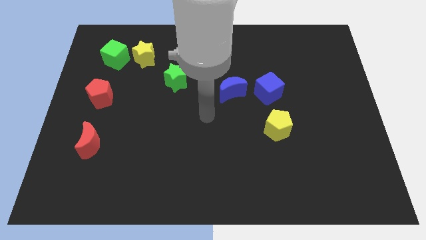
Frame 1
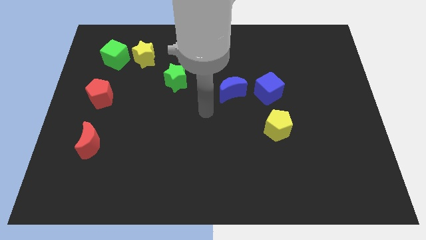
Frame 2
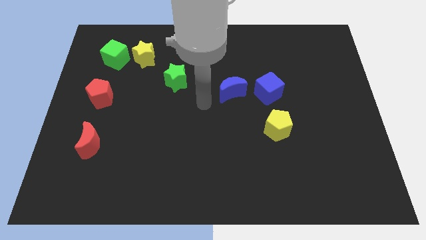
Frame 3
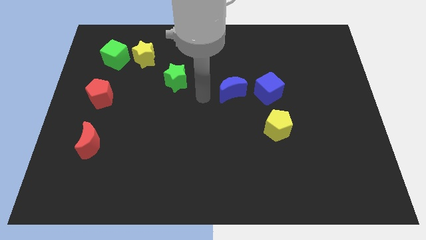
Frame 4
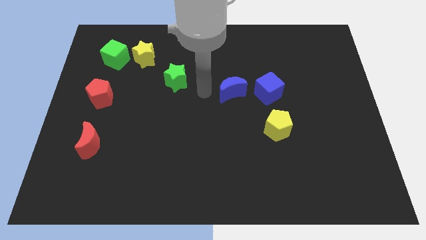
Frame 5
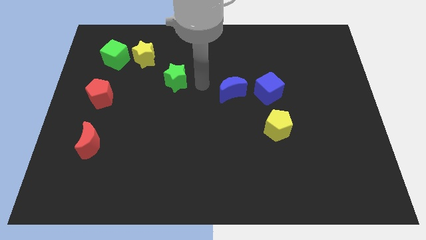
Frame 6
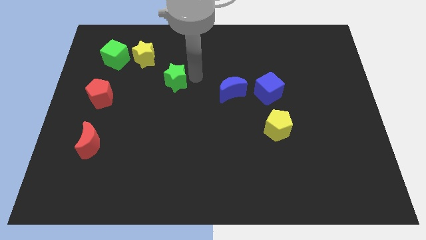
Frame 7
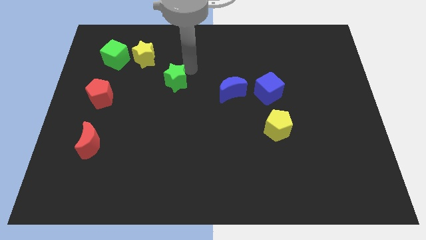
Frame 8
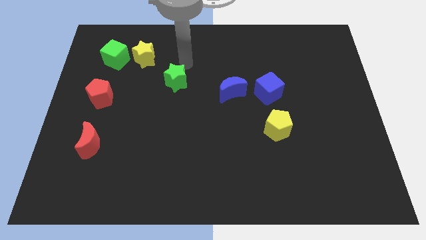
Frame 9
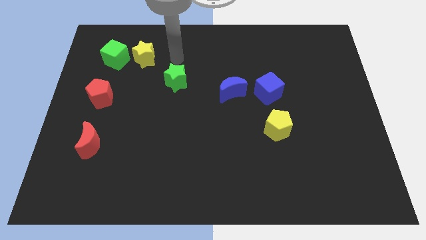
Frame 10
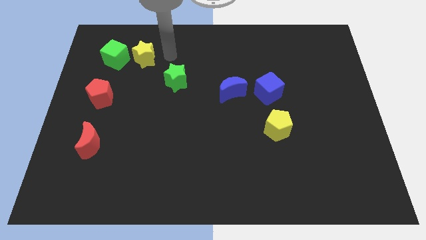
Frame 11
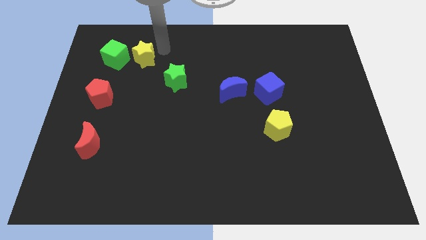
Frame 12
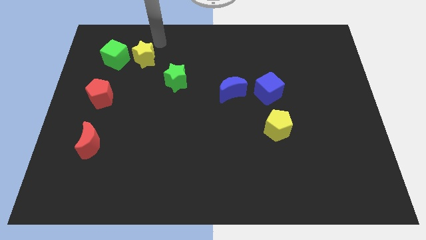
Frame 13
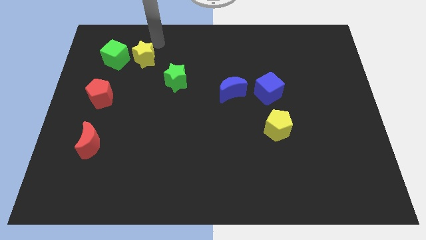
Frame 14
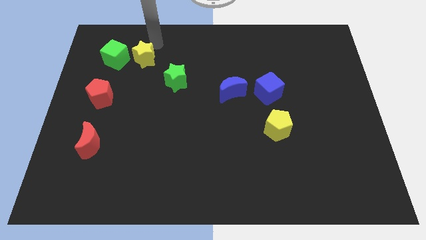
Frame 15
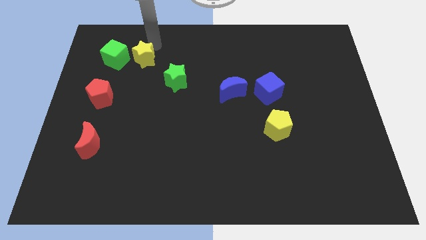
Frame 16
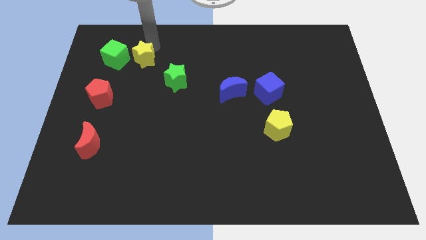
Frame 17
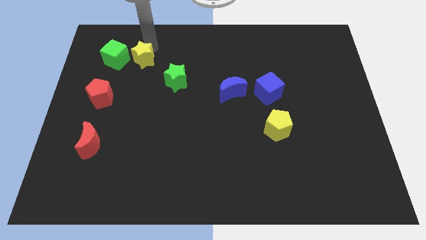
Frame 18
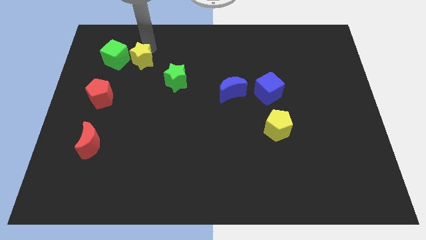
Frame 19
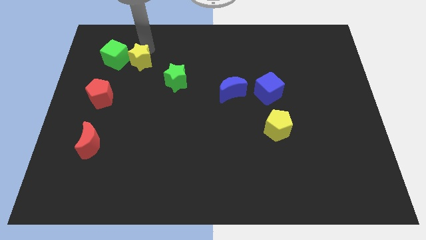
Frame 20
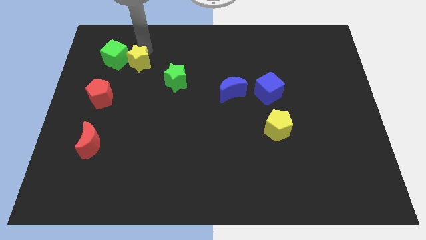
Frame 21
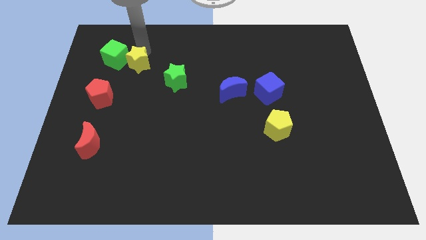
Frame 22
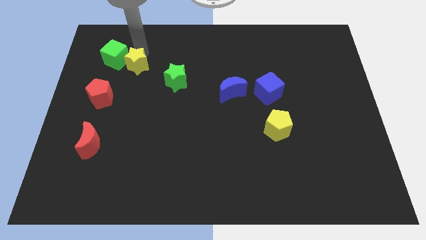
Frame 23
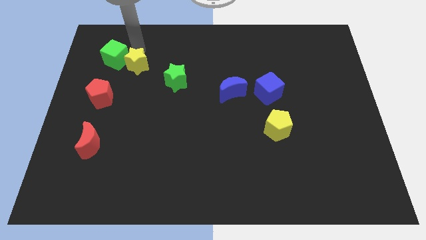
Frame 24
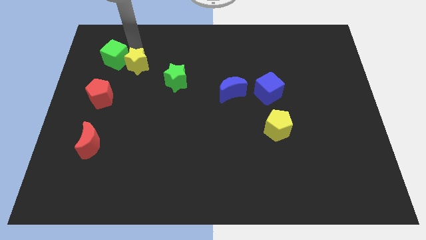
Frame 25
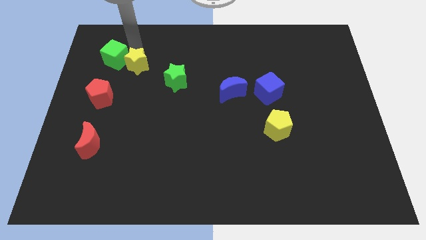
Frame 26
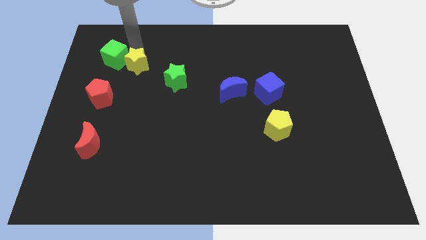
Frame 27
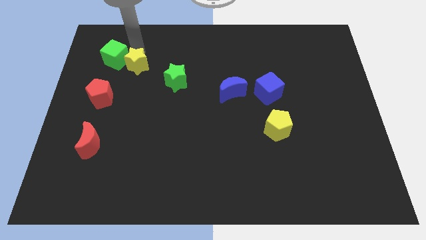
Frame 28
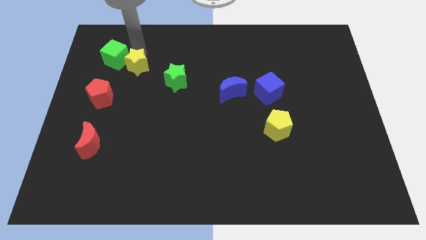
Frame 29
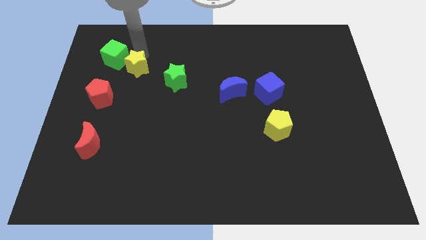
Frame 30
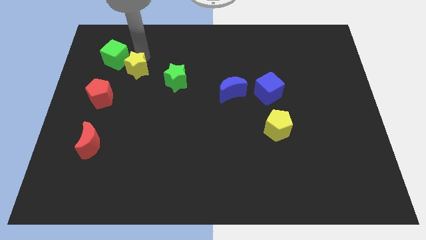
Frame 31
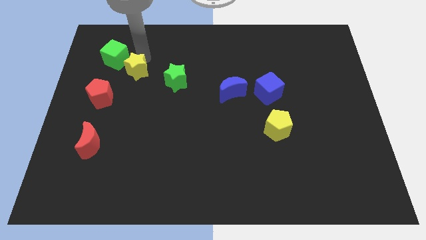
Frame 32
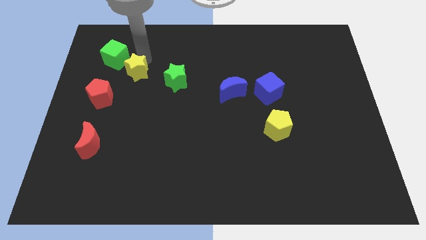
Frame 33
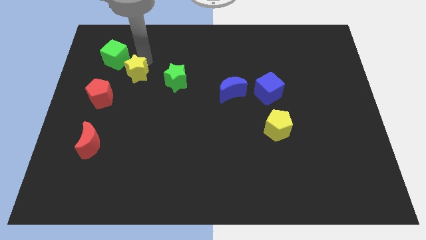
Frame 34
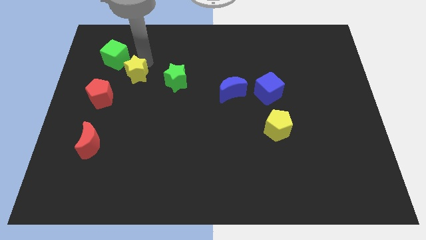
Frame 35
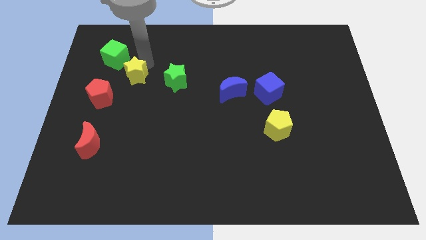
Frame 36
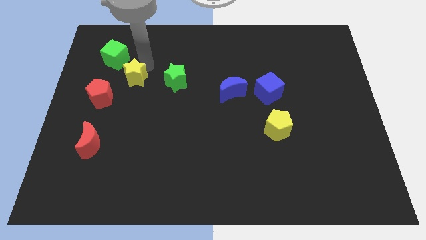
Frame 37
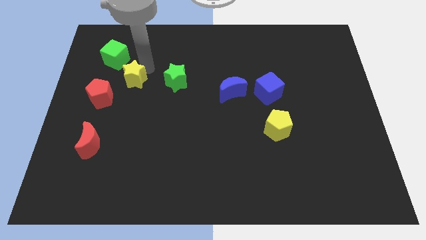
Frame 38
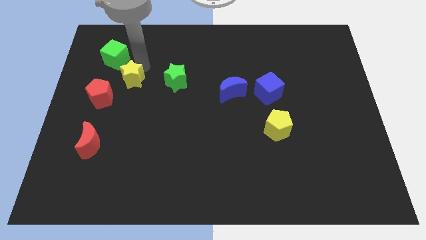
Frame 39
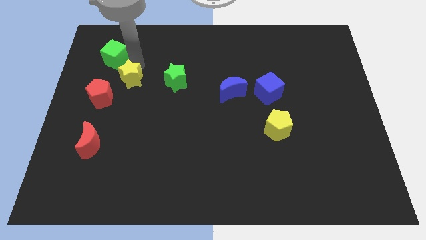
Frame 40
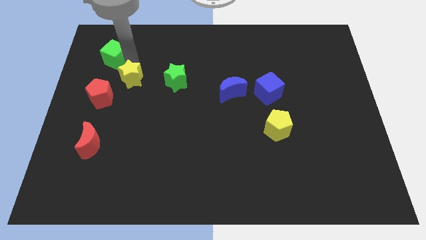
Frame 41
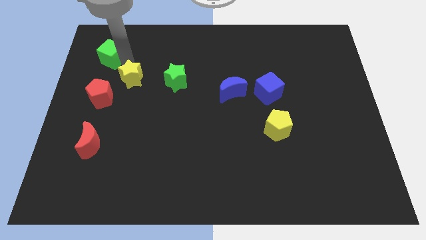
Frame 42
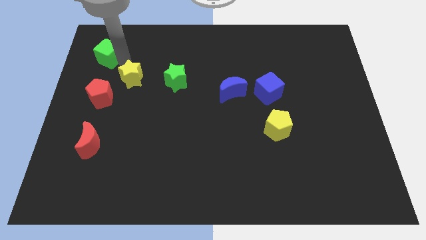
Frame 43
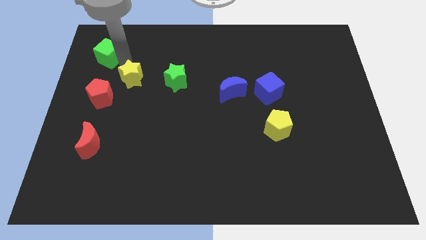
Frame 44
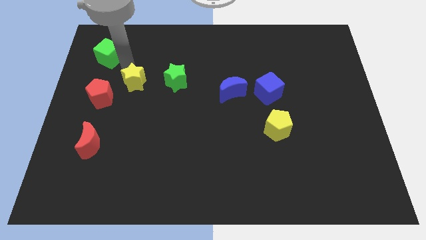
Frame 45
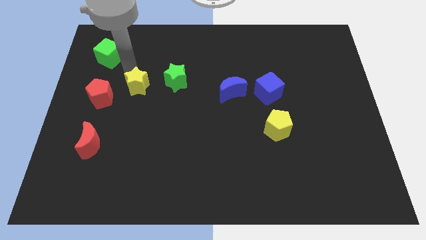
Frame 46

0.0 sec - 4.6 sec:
move the yellow star to the right side of the red pentagon

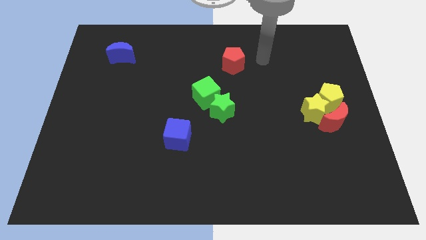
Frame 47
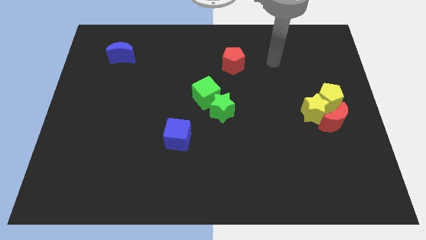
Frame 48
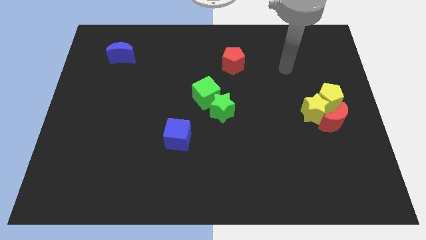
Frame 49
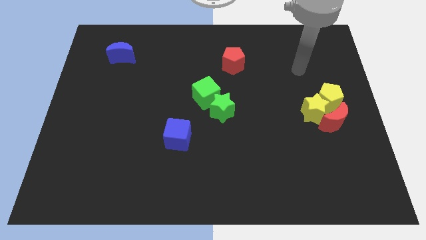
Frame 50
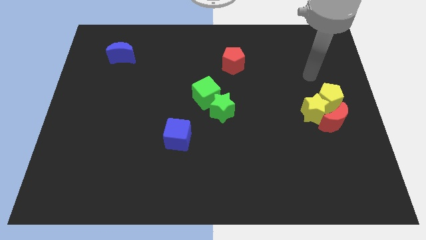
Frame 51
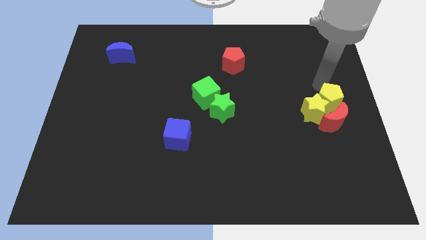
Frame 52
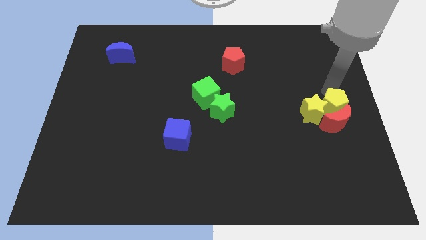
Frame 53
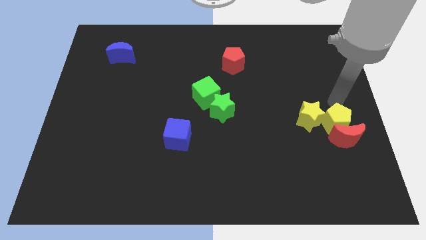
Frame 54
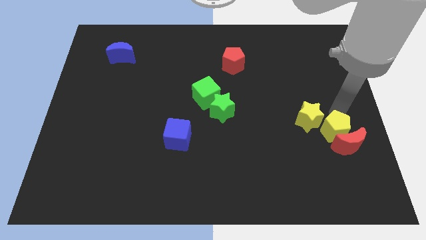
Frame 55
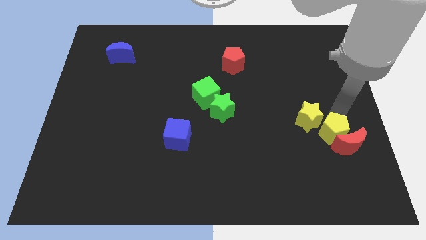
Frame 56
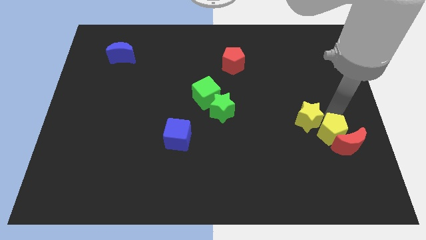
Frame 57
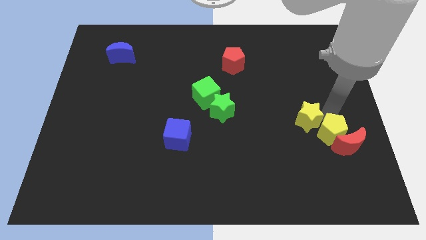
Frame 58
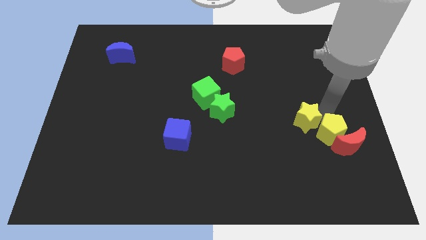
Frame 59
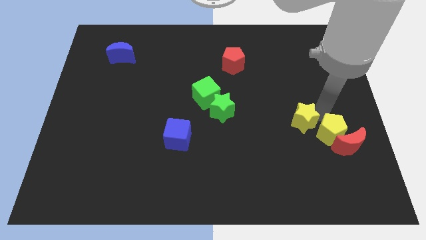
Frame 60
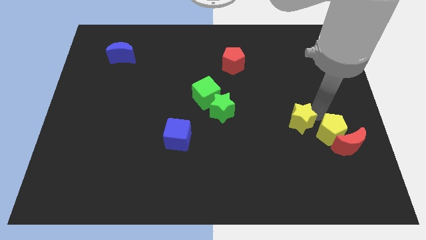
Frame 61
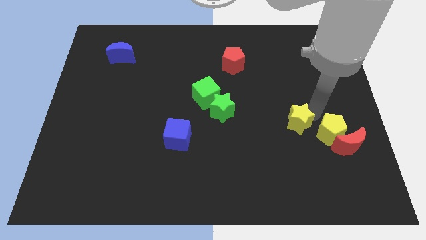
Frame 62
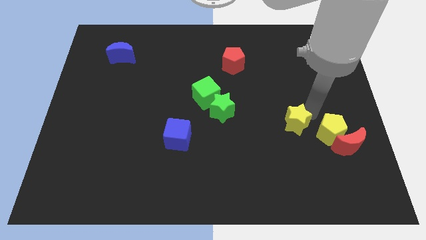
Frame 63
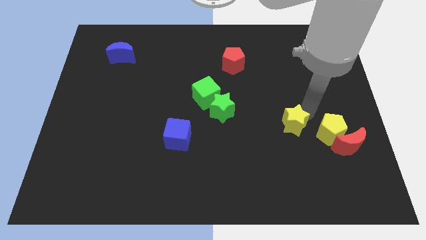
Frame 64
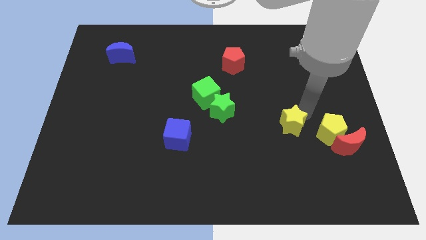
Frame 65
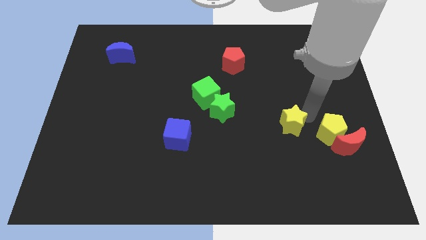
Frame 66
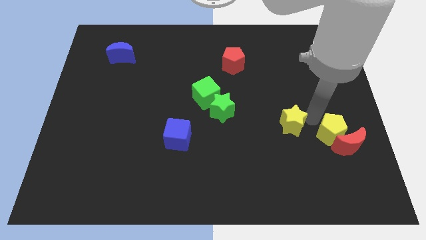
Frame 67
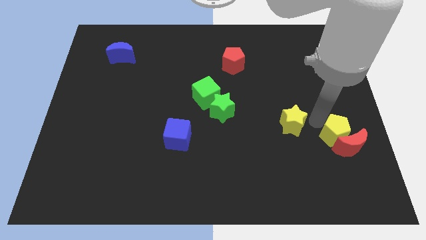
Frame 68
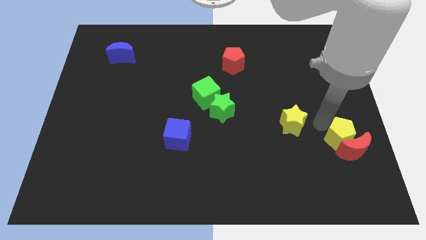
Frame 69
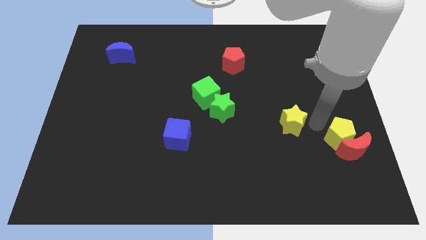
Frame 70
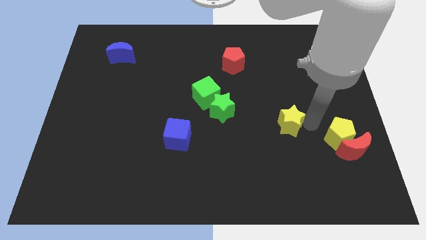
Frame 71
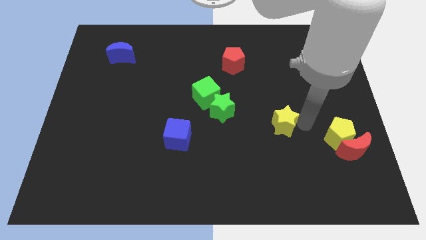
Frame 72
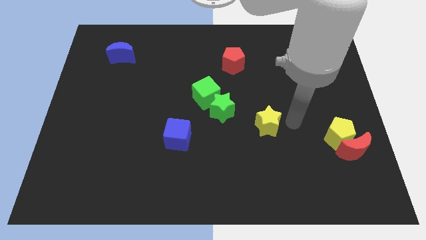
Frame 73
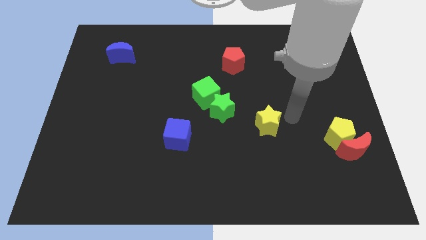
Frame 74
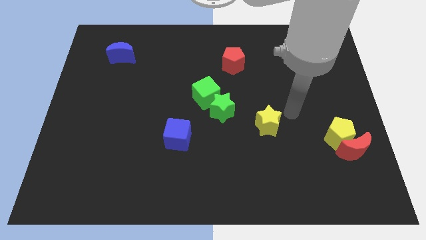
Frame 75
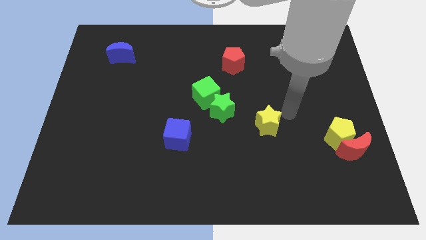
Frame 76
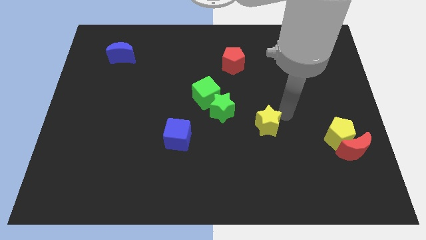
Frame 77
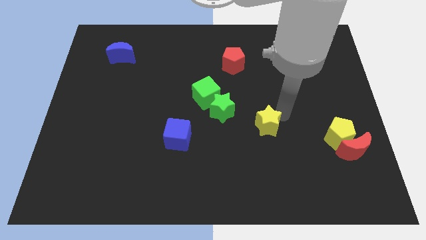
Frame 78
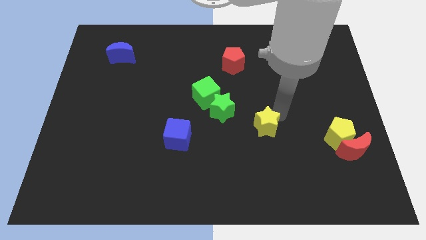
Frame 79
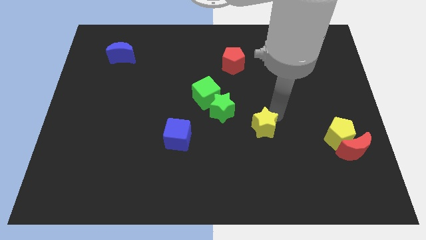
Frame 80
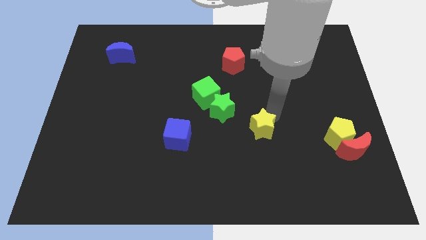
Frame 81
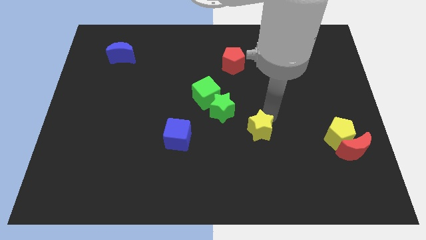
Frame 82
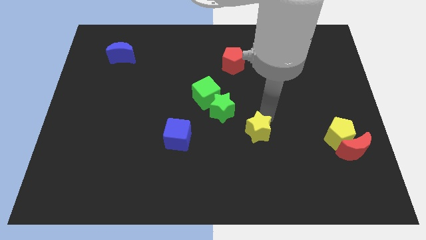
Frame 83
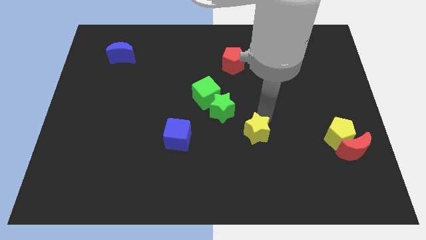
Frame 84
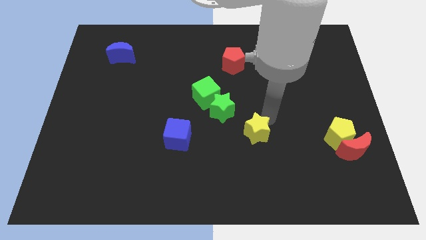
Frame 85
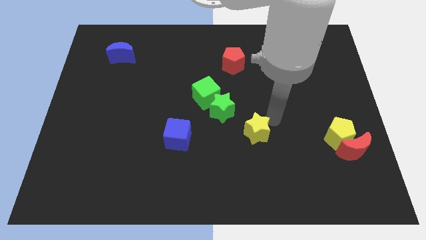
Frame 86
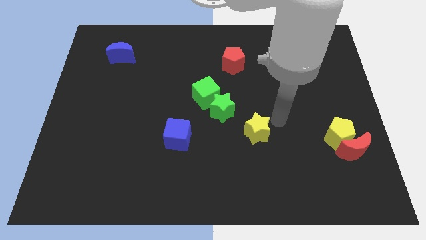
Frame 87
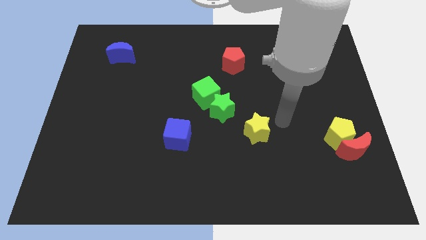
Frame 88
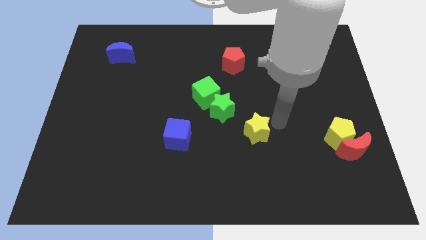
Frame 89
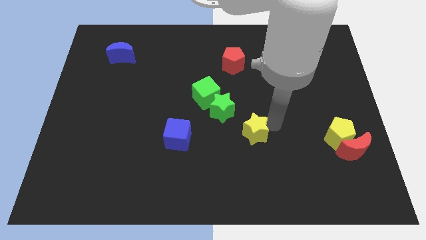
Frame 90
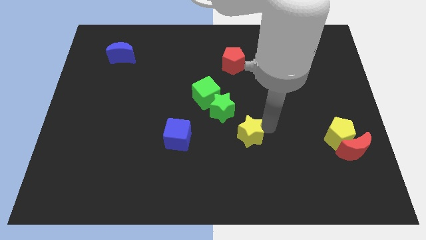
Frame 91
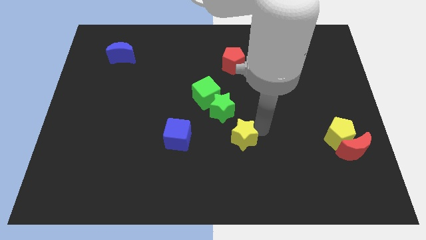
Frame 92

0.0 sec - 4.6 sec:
slide the yellow star below the green star
